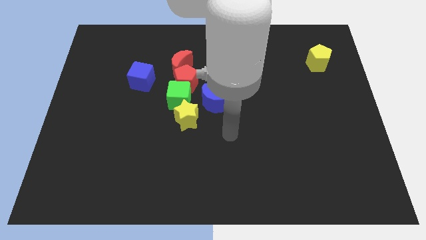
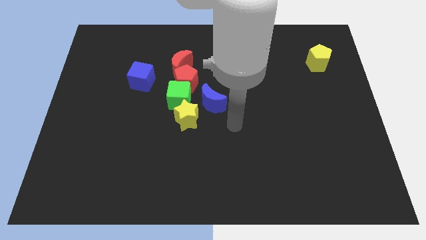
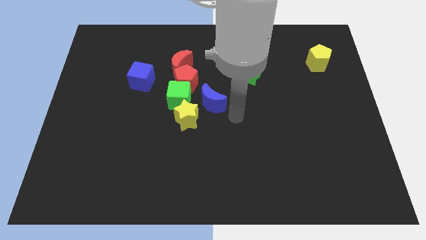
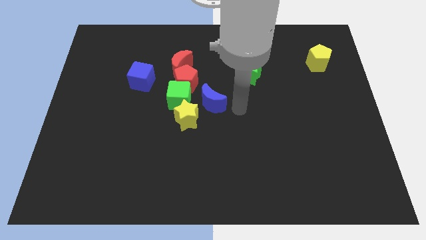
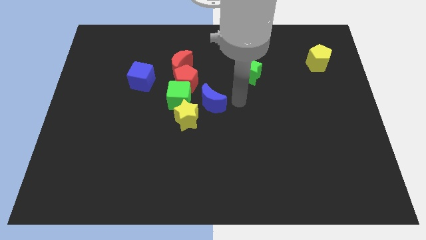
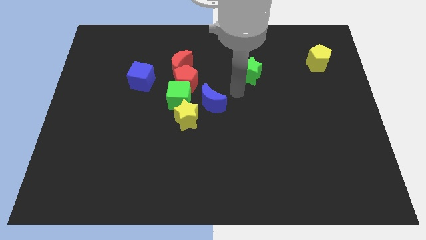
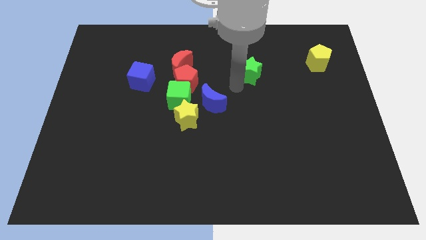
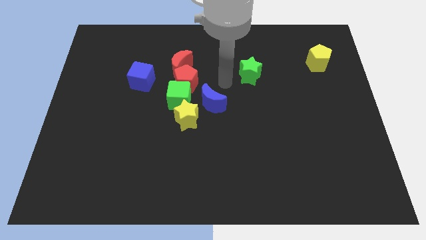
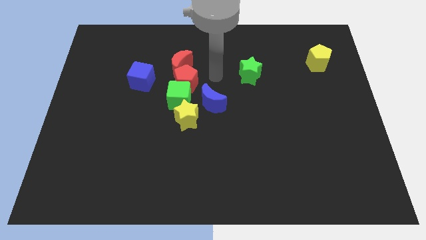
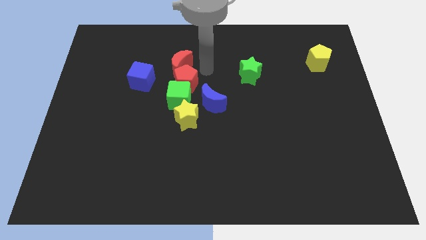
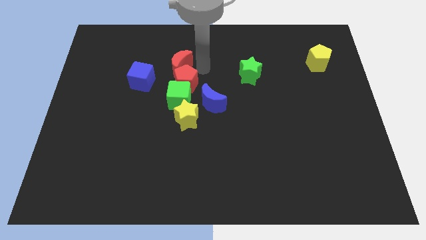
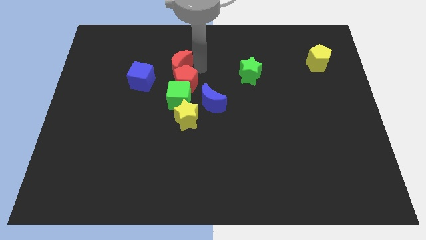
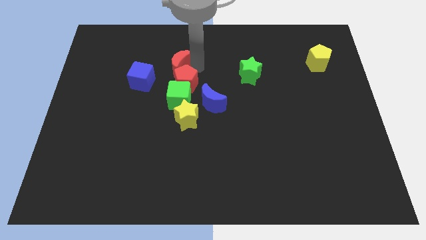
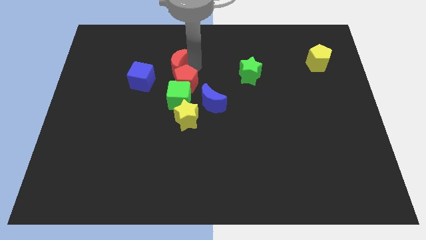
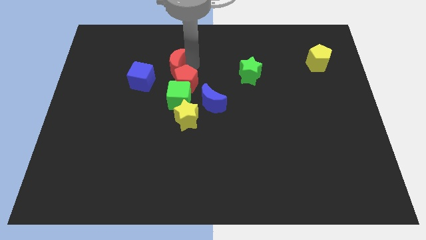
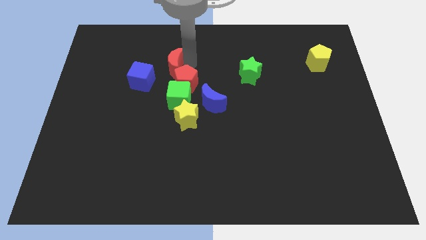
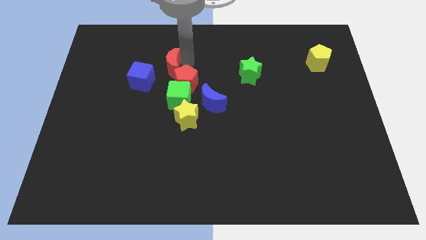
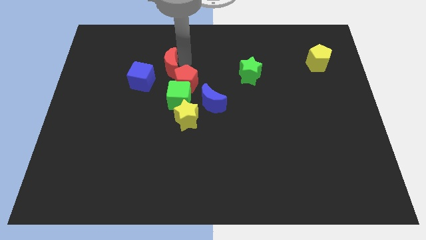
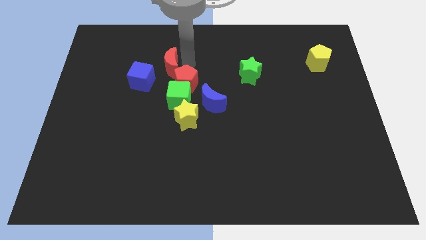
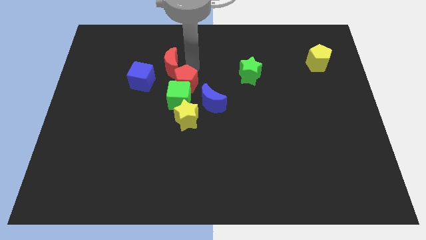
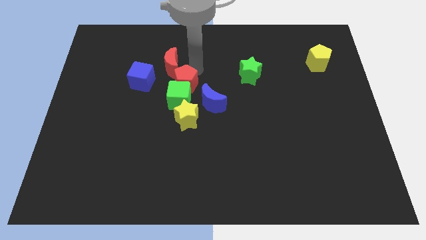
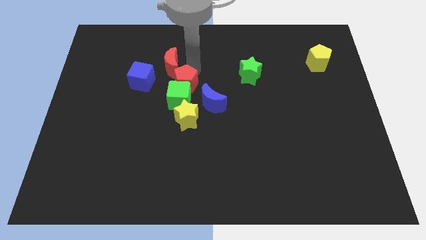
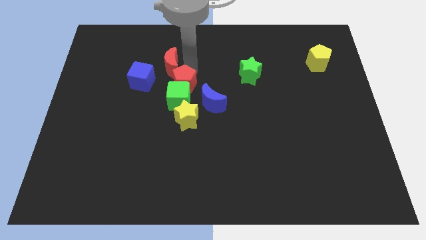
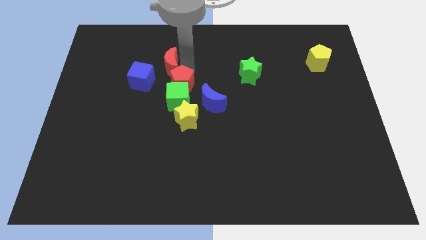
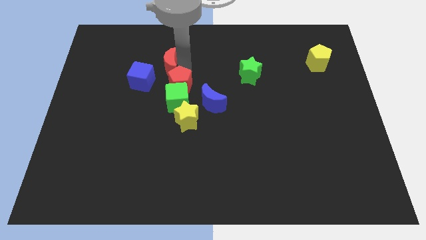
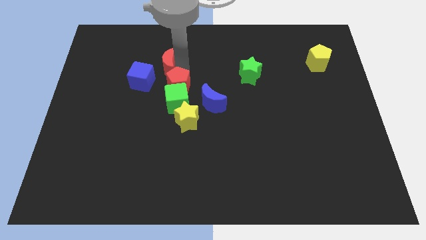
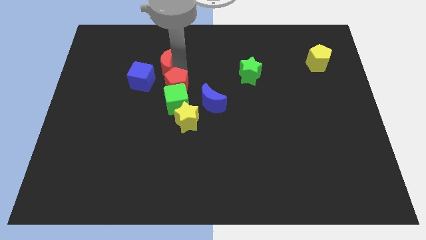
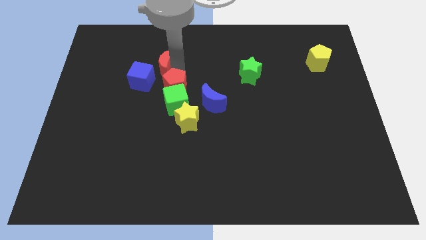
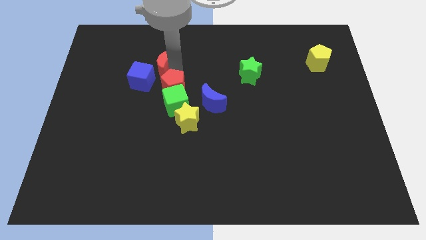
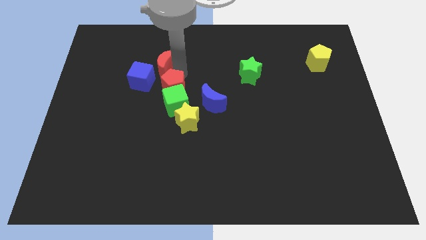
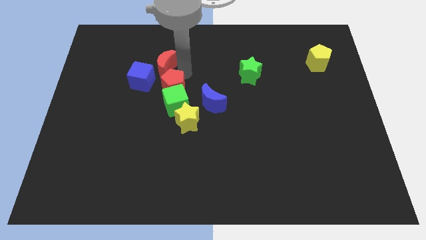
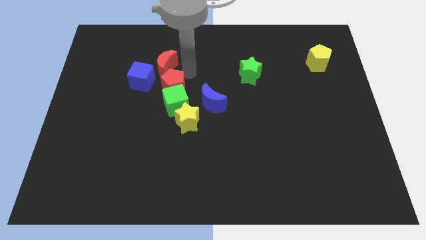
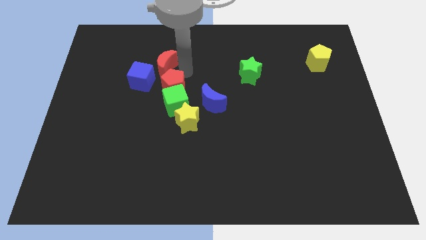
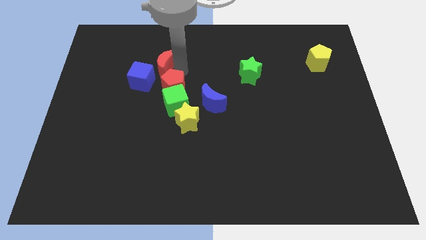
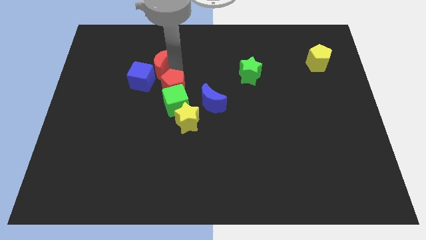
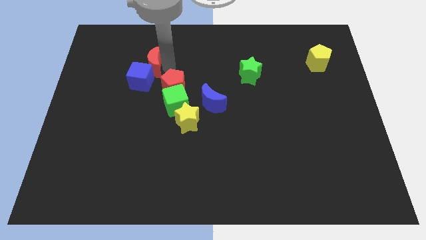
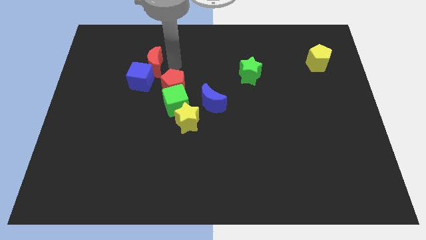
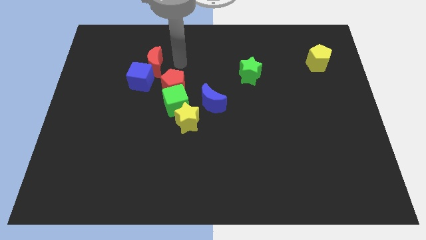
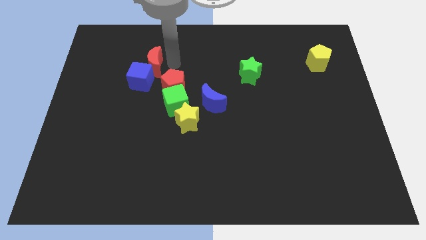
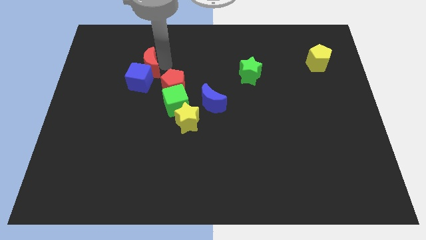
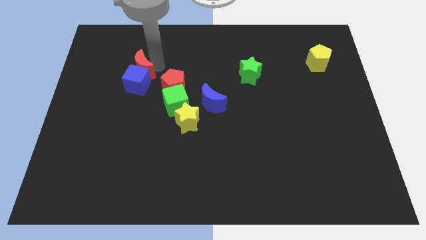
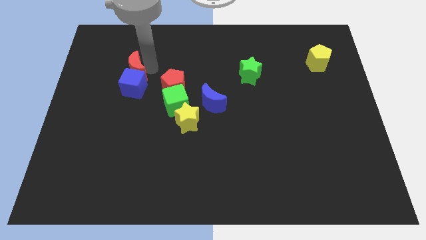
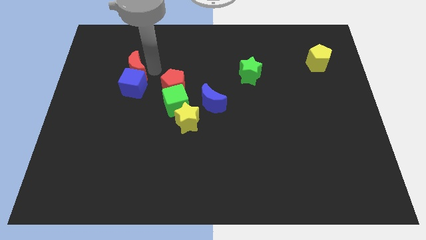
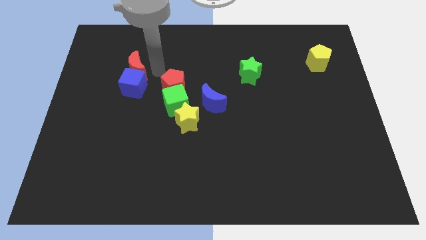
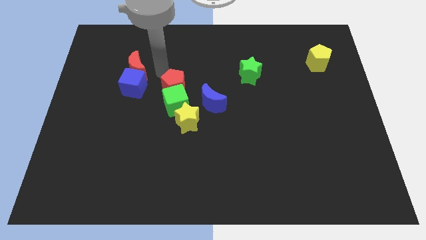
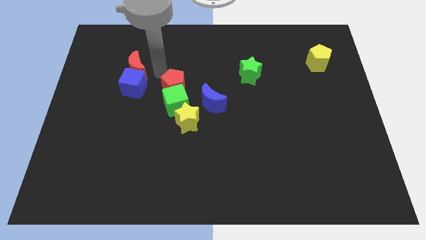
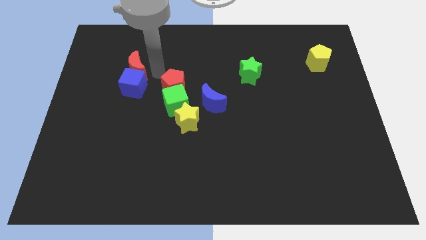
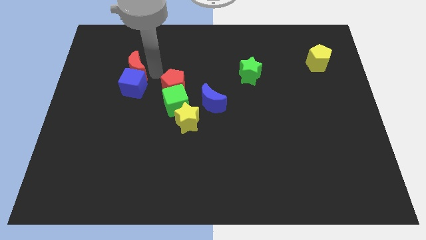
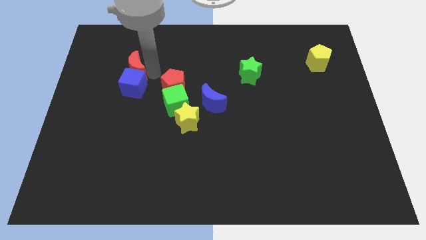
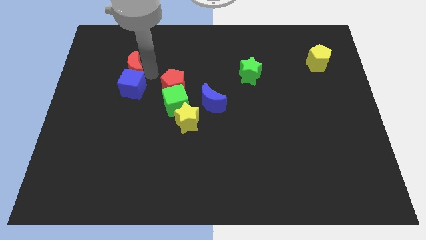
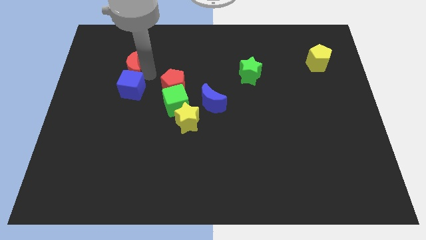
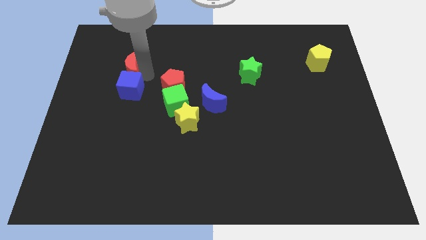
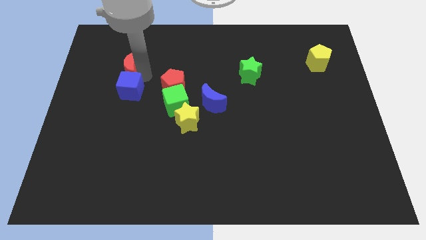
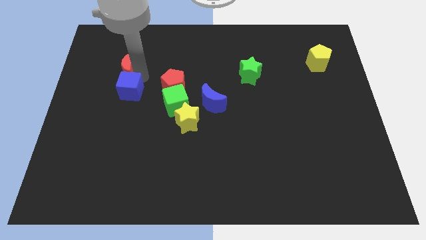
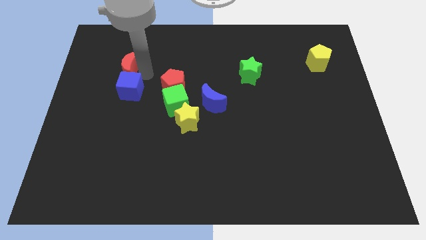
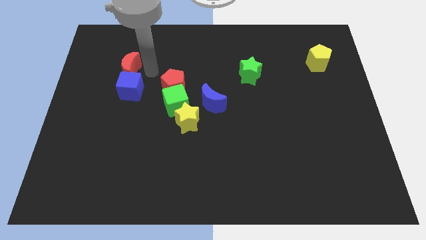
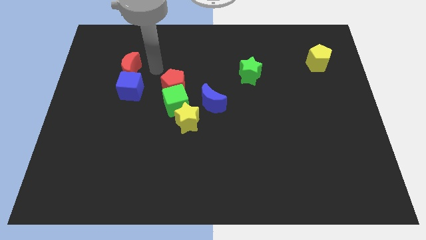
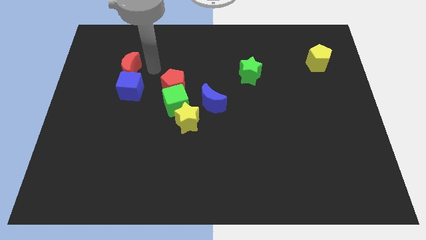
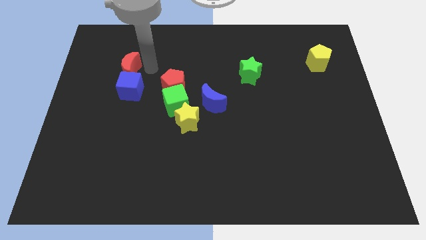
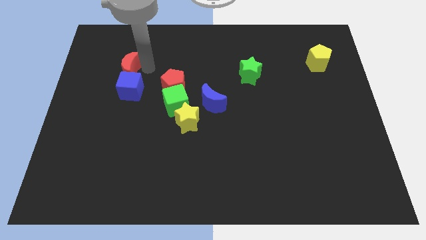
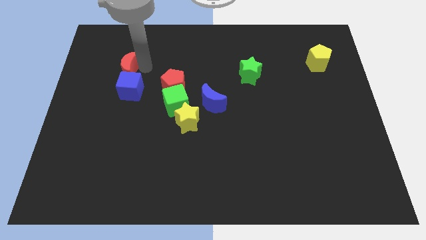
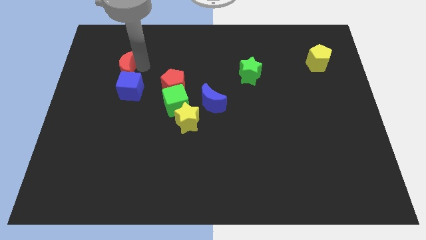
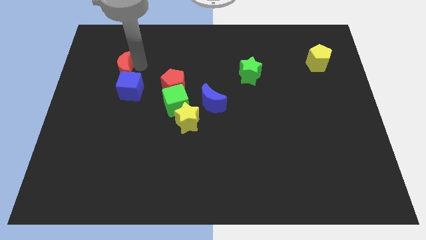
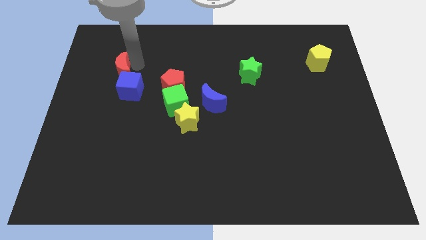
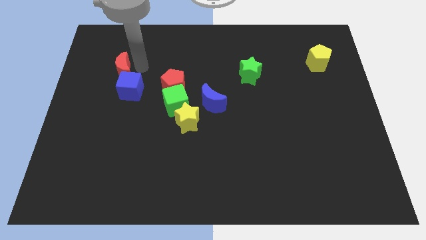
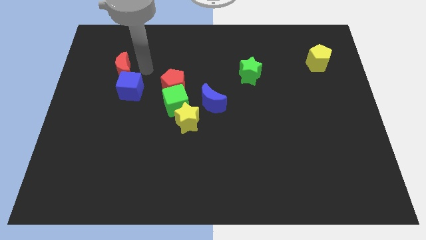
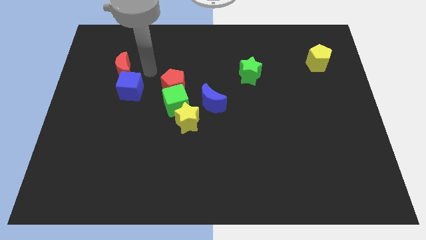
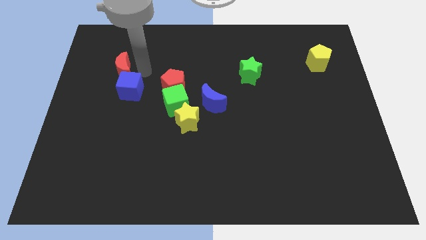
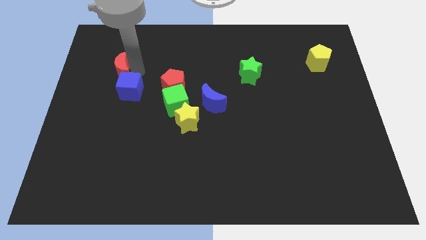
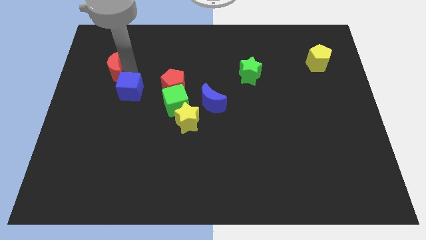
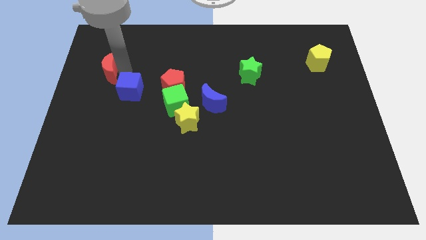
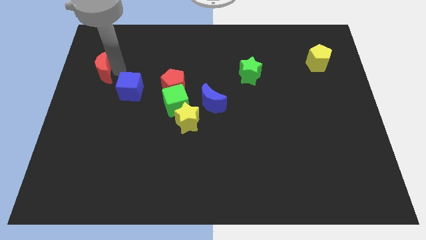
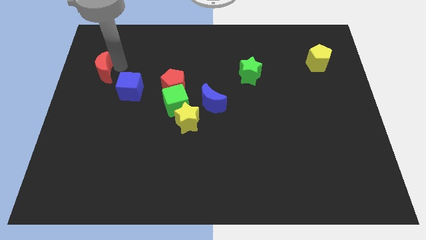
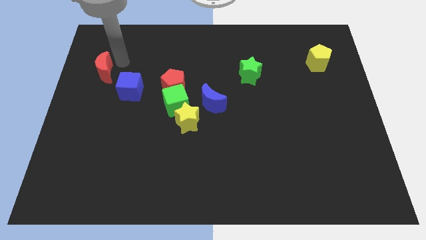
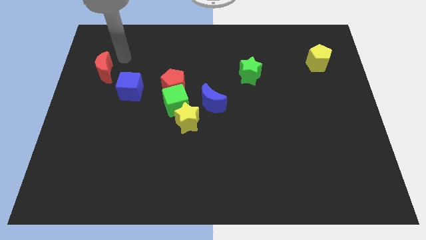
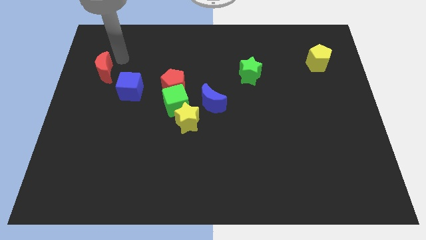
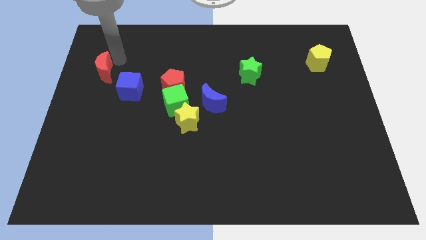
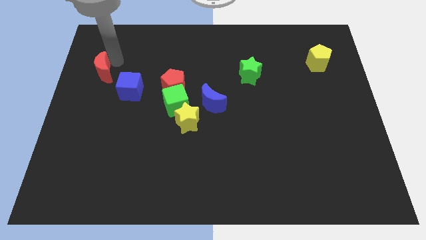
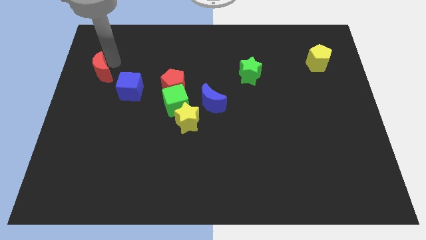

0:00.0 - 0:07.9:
push the red moon to the center left
